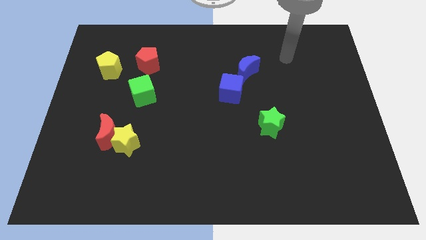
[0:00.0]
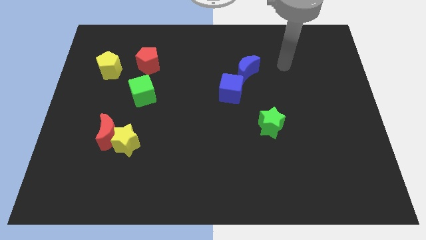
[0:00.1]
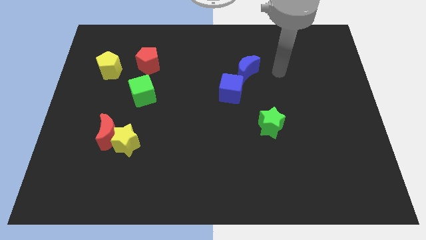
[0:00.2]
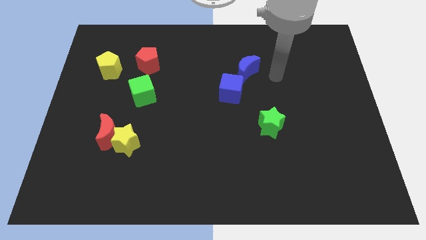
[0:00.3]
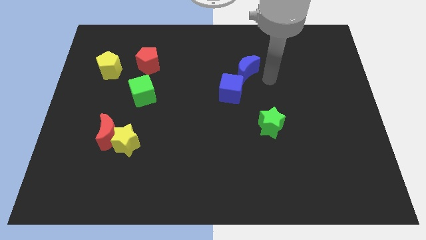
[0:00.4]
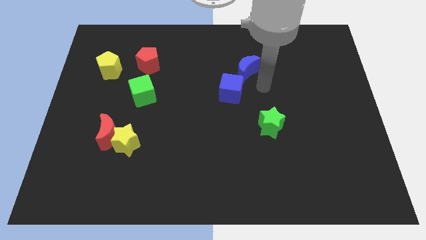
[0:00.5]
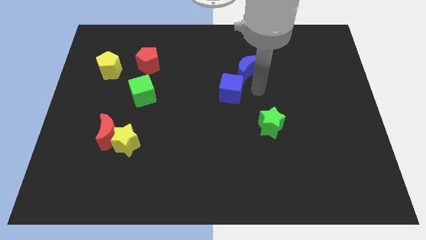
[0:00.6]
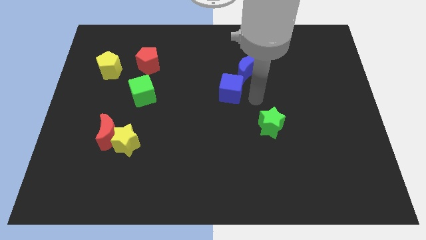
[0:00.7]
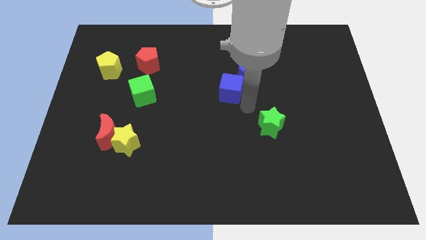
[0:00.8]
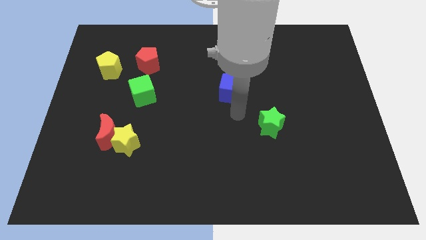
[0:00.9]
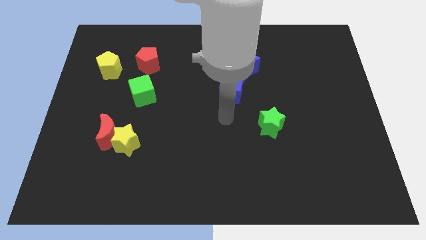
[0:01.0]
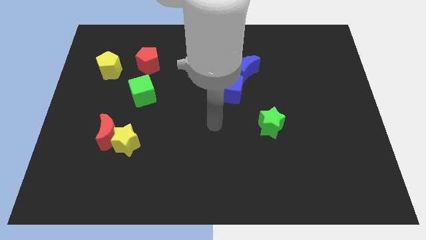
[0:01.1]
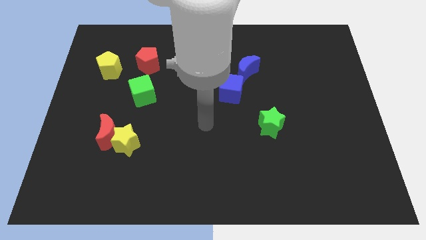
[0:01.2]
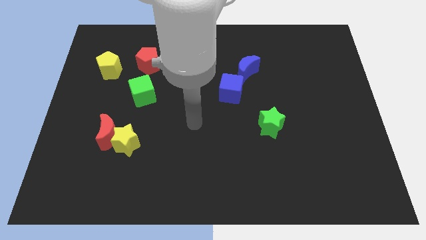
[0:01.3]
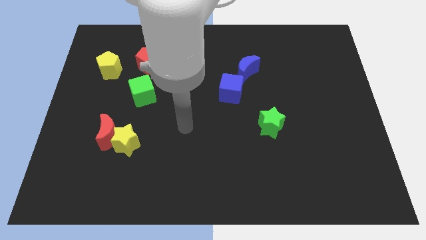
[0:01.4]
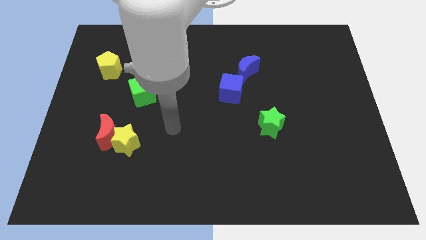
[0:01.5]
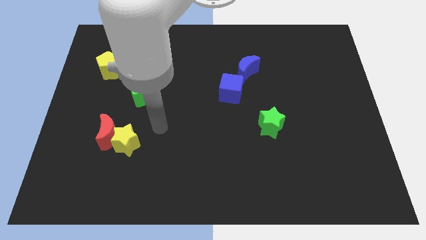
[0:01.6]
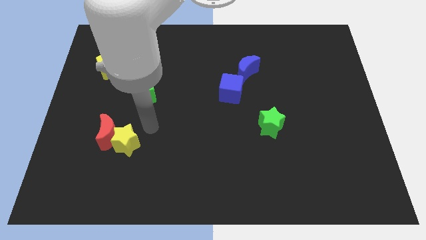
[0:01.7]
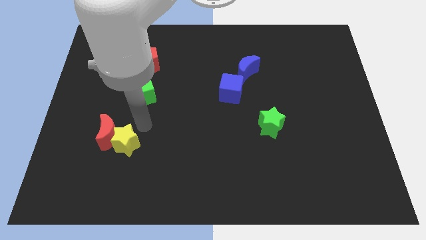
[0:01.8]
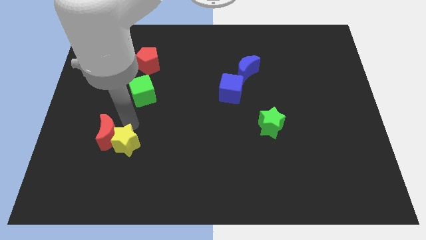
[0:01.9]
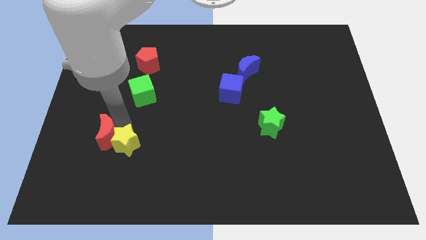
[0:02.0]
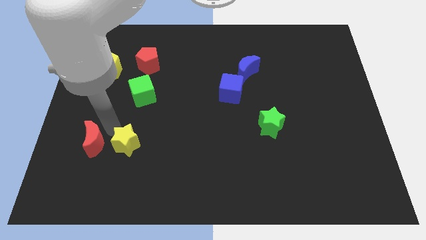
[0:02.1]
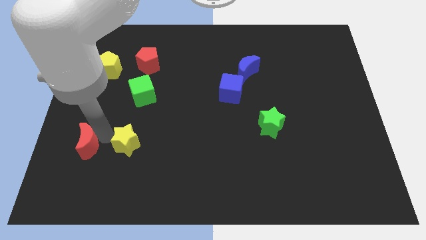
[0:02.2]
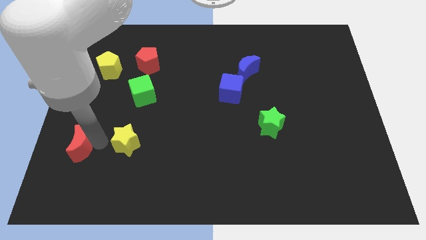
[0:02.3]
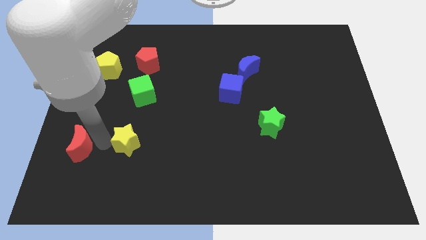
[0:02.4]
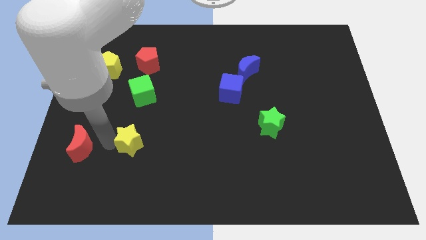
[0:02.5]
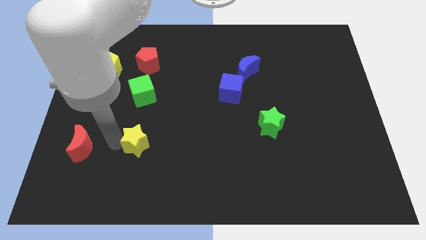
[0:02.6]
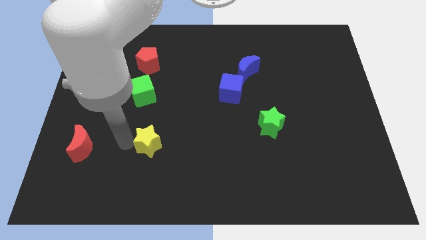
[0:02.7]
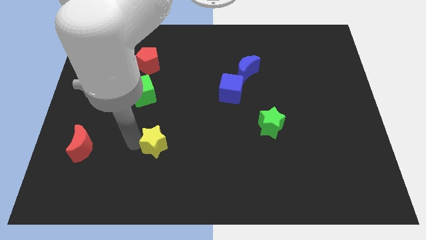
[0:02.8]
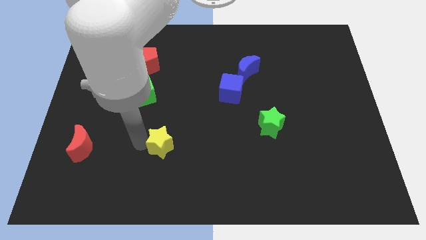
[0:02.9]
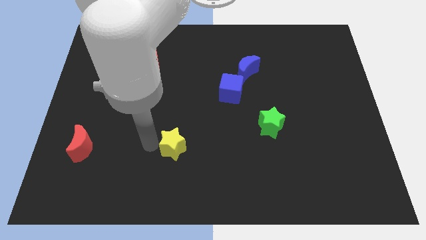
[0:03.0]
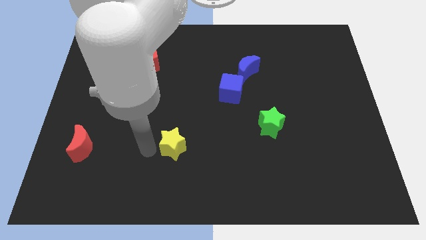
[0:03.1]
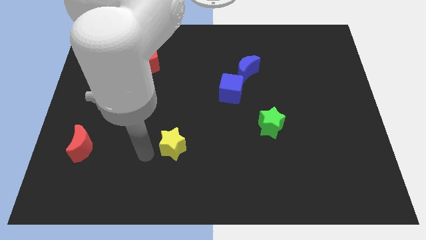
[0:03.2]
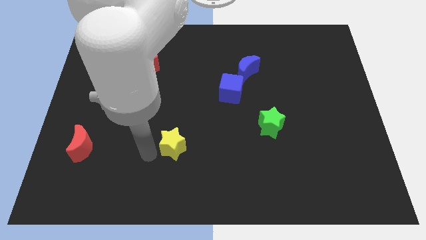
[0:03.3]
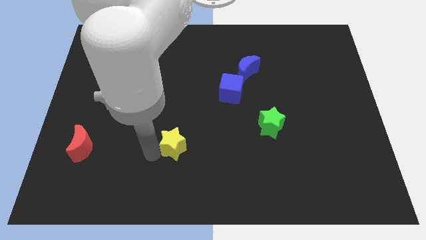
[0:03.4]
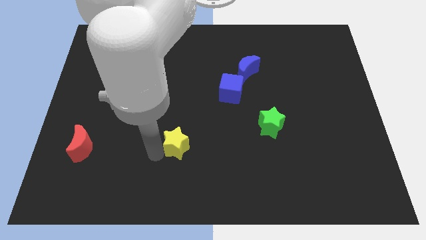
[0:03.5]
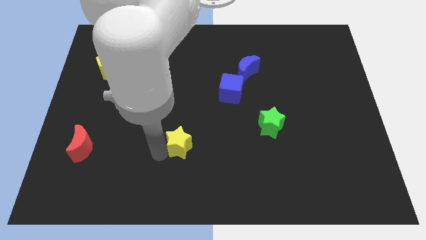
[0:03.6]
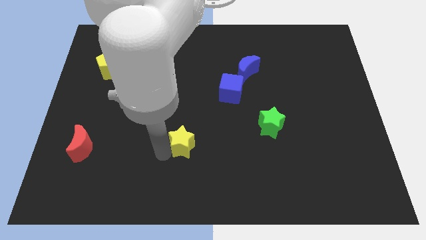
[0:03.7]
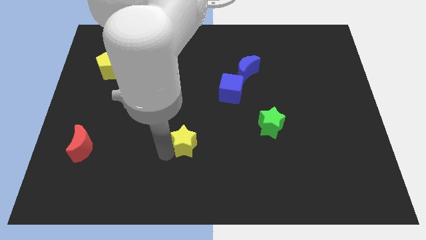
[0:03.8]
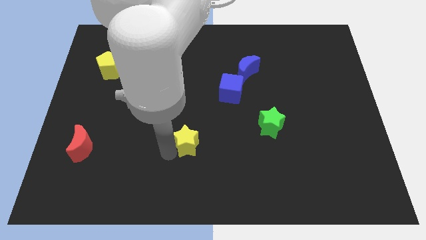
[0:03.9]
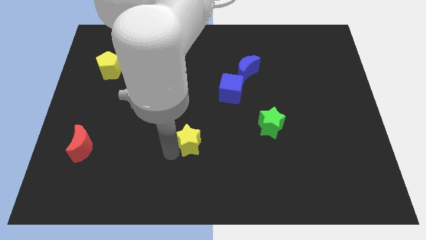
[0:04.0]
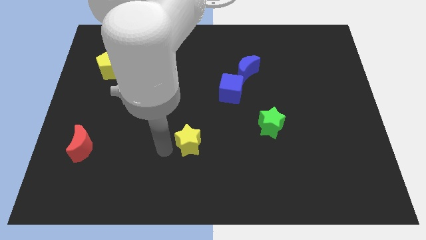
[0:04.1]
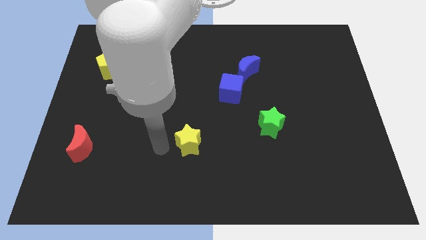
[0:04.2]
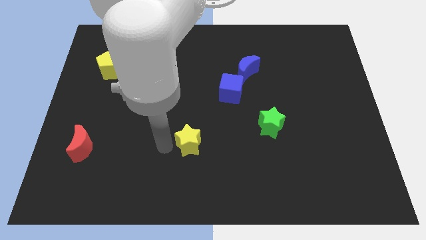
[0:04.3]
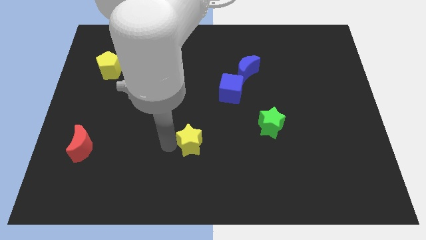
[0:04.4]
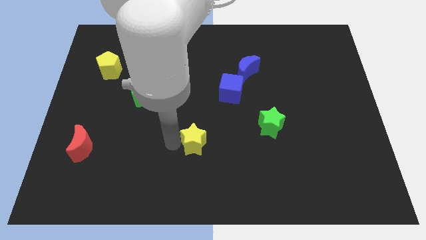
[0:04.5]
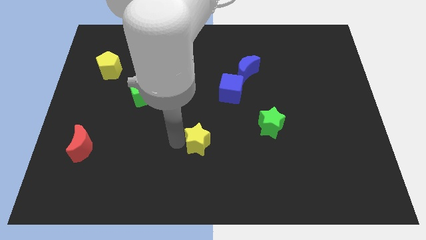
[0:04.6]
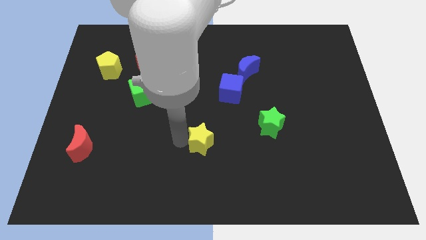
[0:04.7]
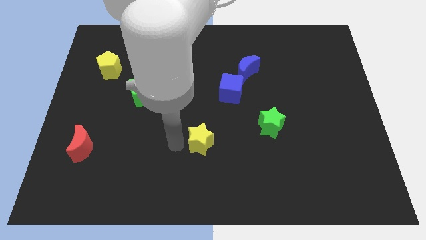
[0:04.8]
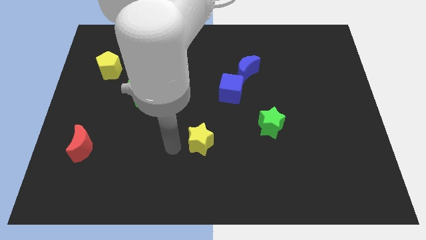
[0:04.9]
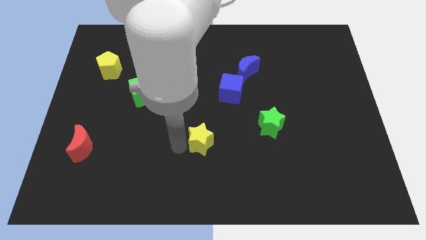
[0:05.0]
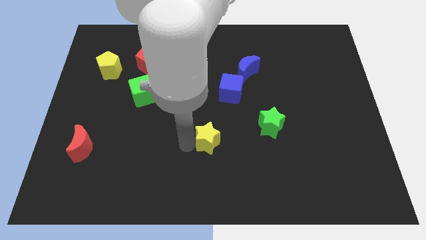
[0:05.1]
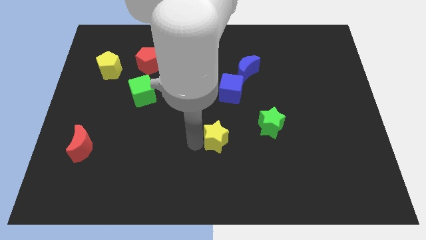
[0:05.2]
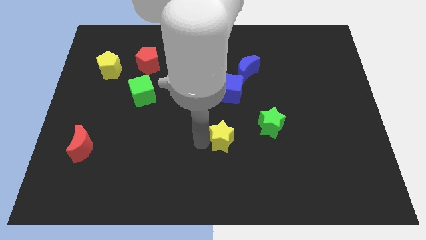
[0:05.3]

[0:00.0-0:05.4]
push the yellow star to the right

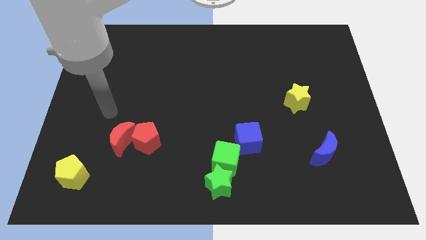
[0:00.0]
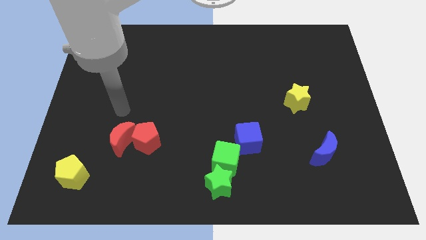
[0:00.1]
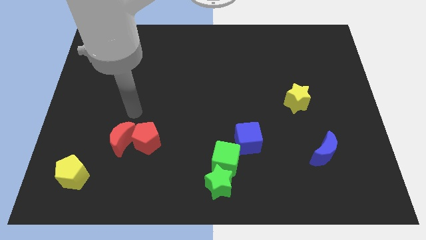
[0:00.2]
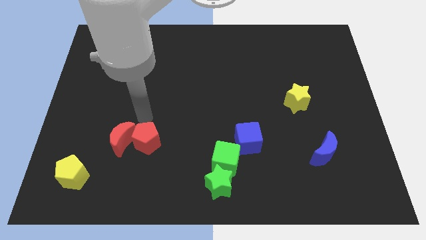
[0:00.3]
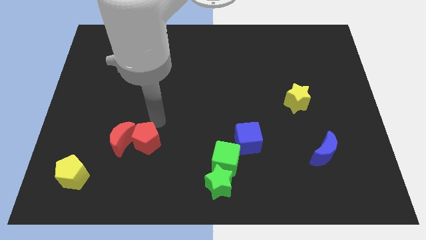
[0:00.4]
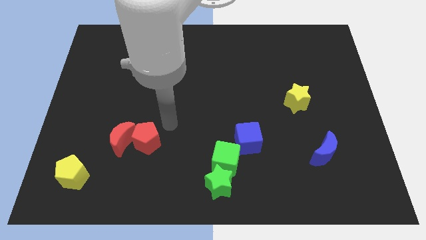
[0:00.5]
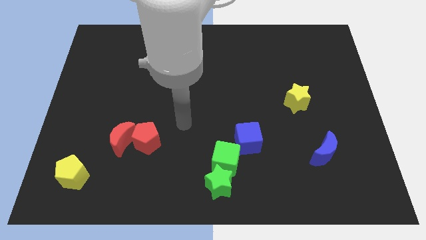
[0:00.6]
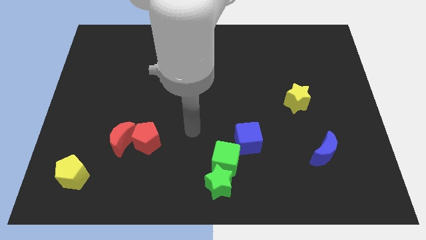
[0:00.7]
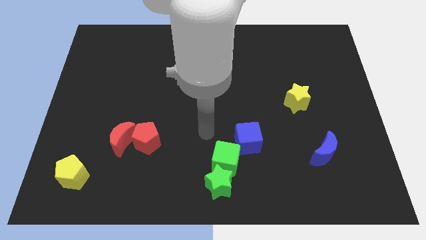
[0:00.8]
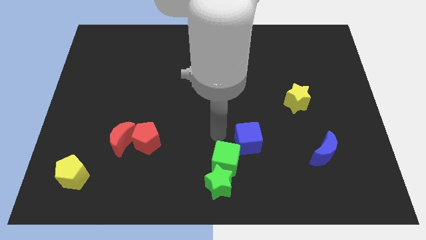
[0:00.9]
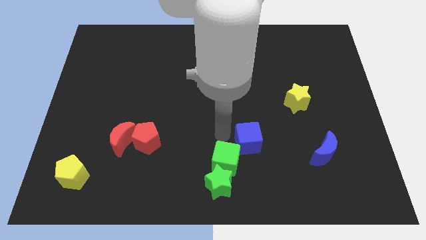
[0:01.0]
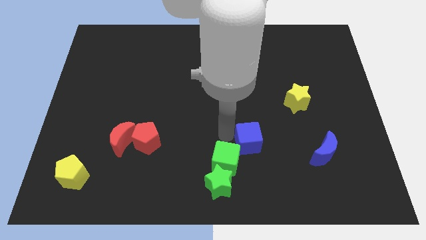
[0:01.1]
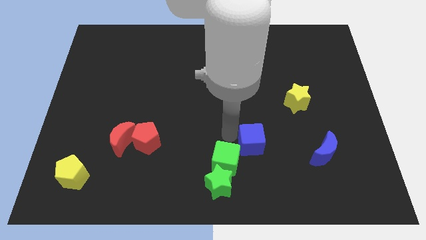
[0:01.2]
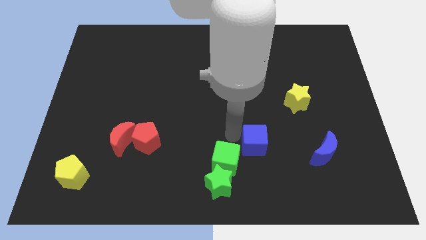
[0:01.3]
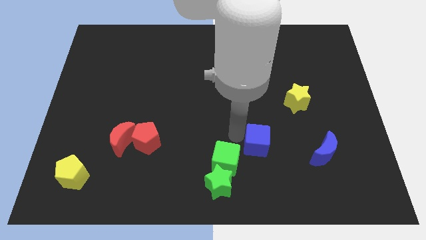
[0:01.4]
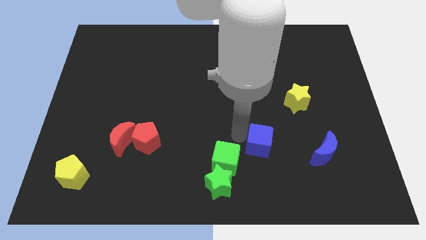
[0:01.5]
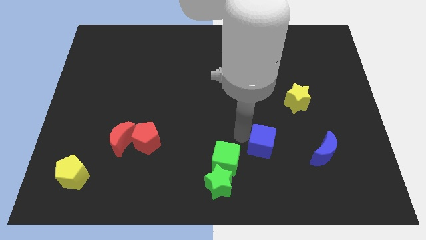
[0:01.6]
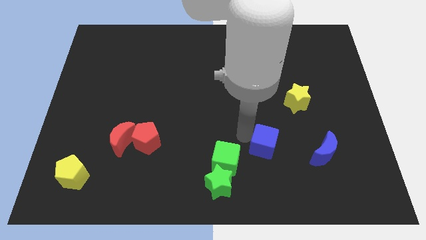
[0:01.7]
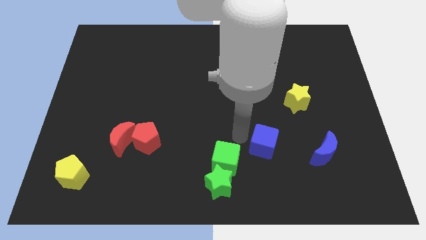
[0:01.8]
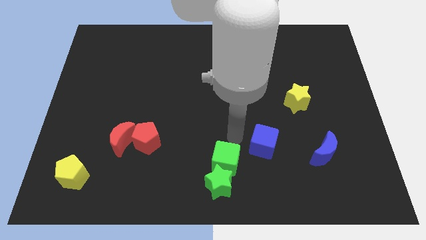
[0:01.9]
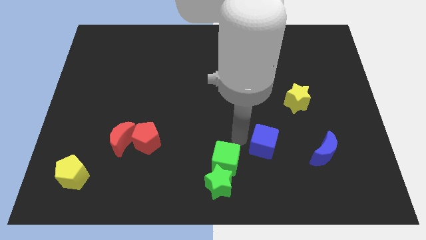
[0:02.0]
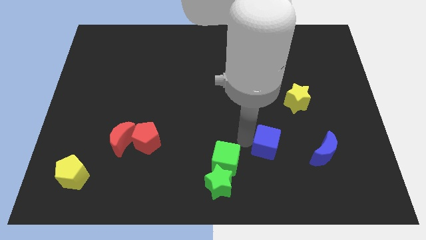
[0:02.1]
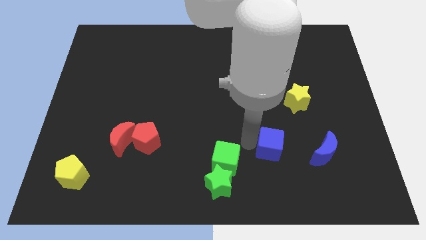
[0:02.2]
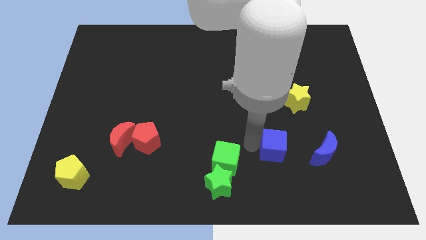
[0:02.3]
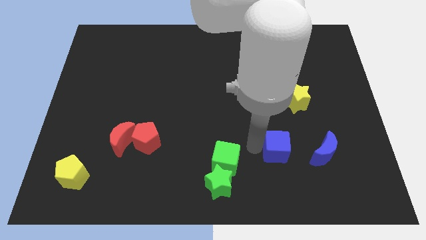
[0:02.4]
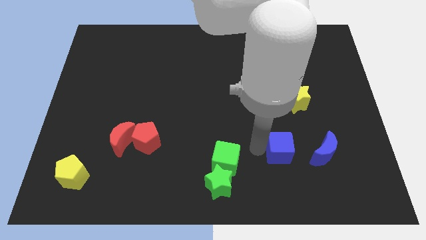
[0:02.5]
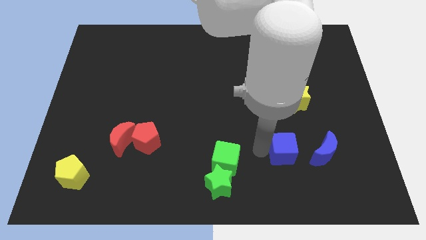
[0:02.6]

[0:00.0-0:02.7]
push the blue cube somewhat right
